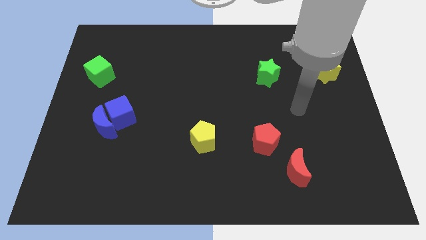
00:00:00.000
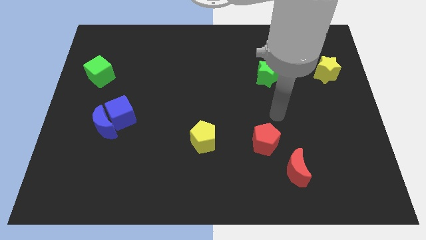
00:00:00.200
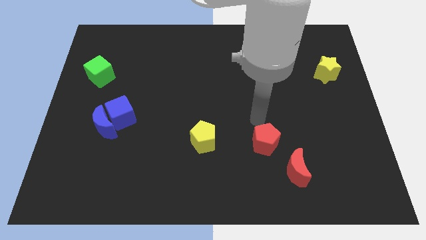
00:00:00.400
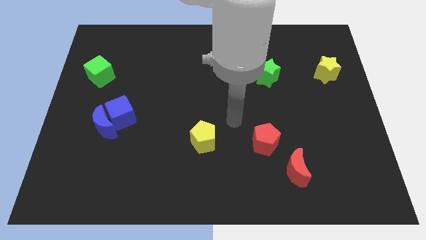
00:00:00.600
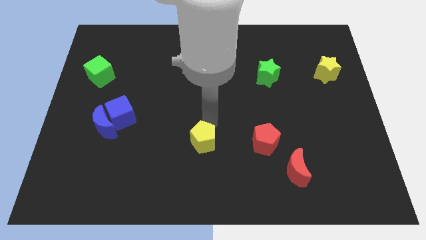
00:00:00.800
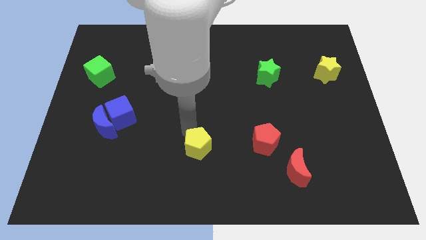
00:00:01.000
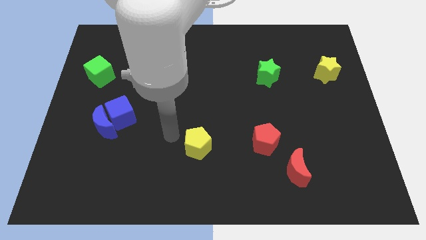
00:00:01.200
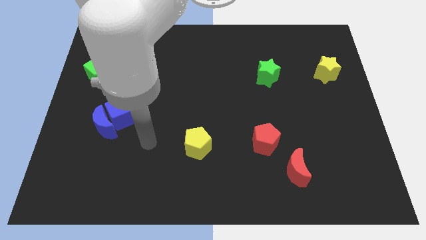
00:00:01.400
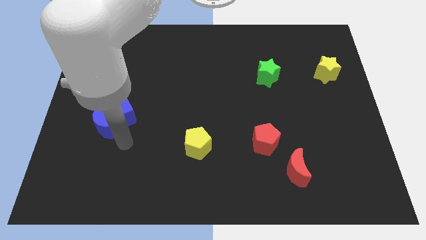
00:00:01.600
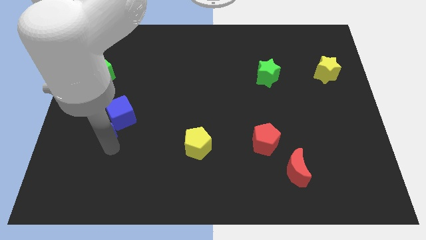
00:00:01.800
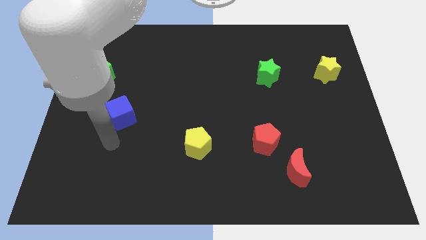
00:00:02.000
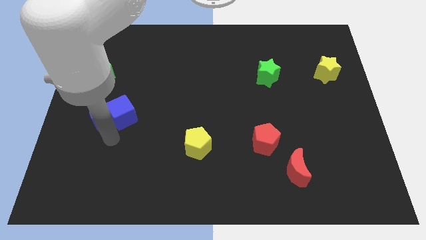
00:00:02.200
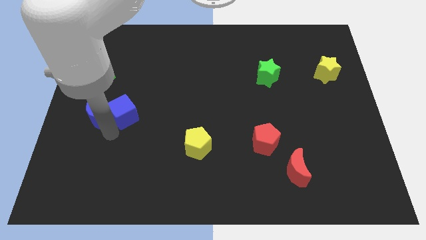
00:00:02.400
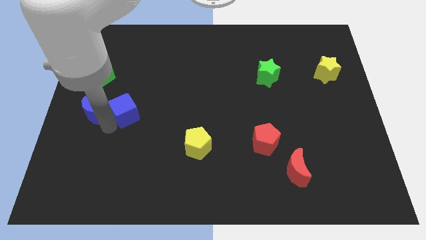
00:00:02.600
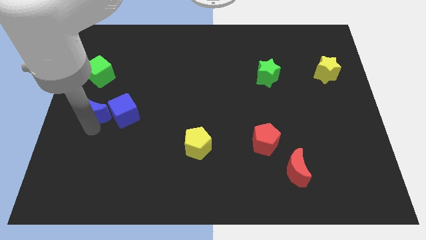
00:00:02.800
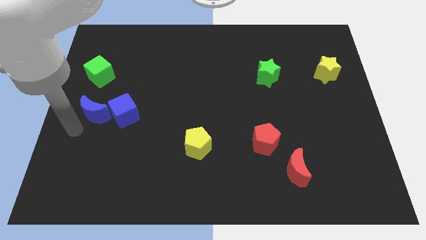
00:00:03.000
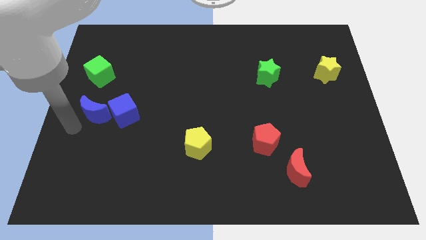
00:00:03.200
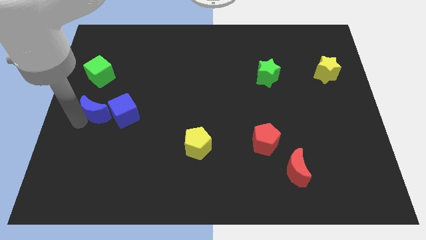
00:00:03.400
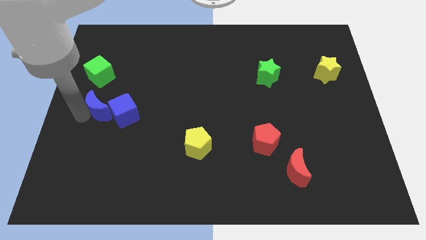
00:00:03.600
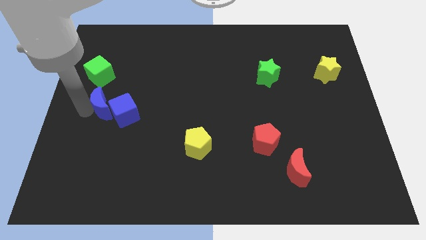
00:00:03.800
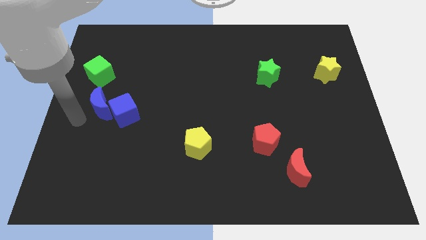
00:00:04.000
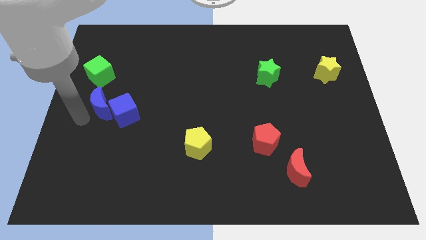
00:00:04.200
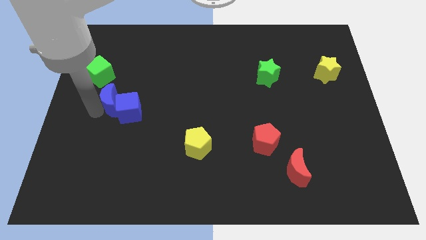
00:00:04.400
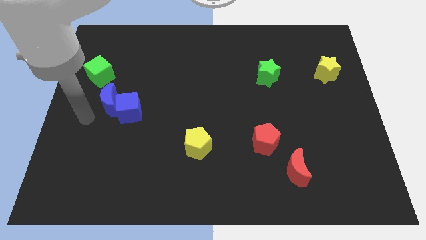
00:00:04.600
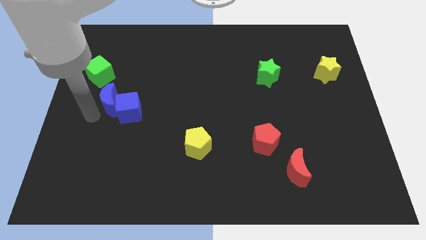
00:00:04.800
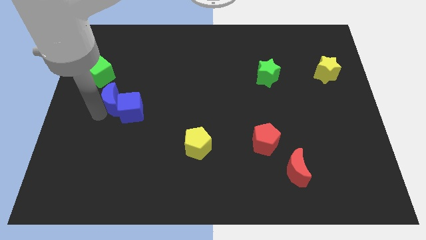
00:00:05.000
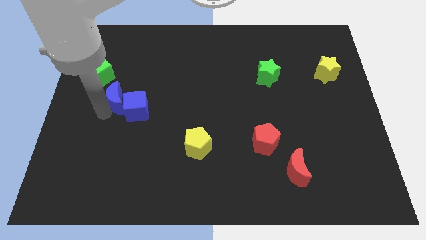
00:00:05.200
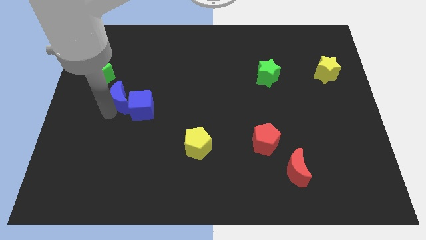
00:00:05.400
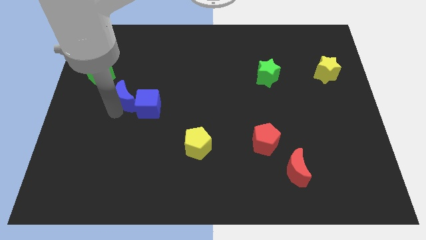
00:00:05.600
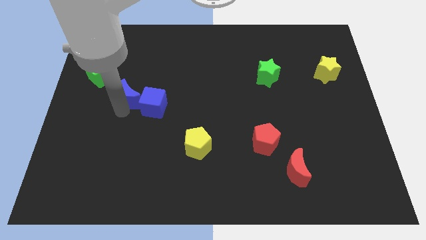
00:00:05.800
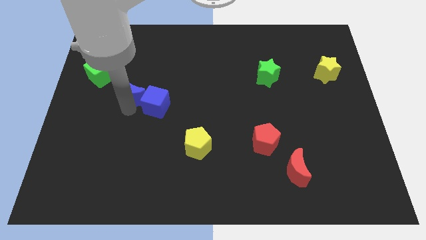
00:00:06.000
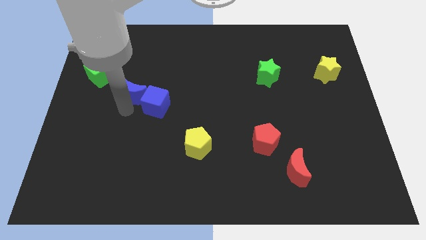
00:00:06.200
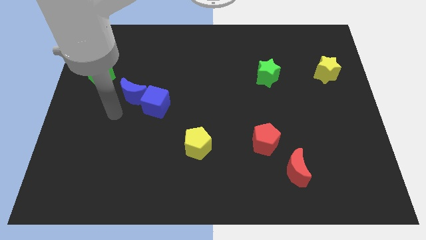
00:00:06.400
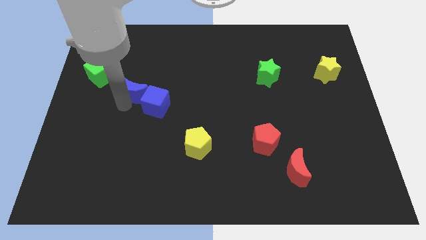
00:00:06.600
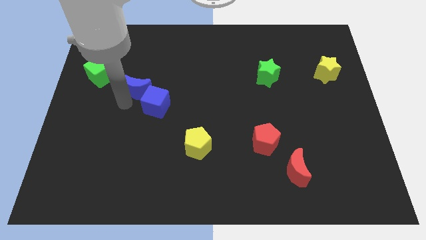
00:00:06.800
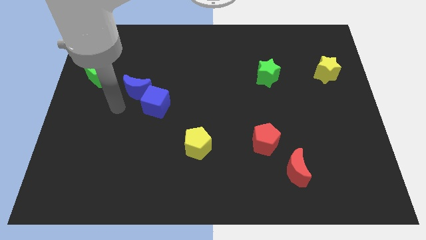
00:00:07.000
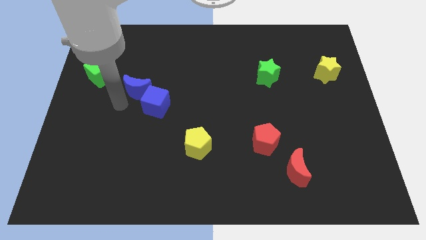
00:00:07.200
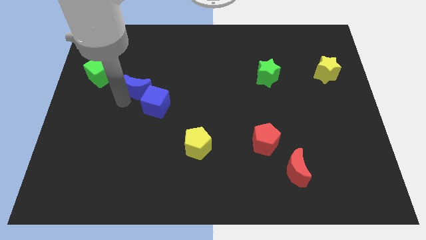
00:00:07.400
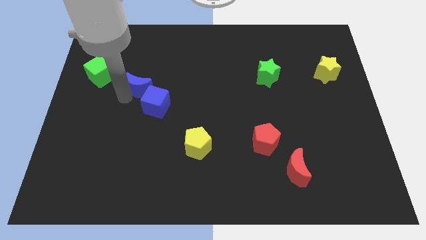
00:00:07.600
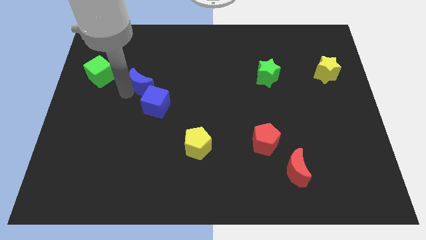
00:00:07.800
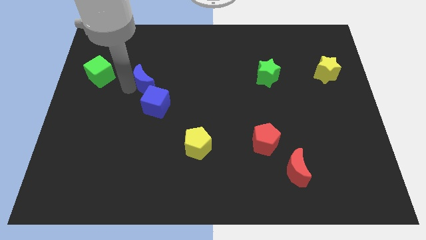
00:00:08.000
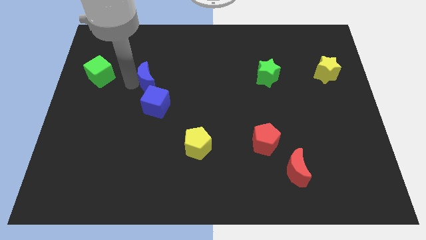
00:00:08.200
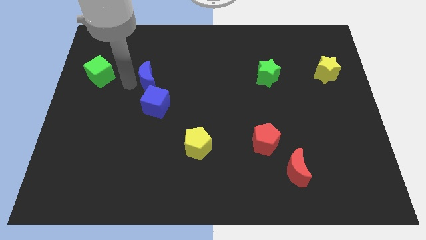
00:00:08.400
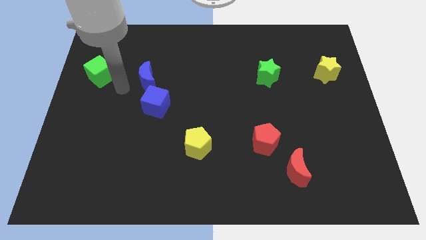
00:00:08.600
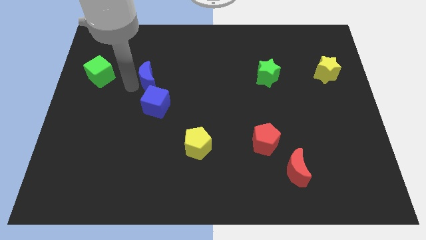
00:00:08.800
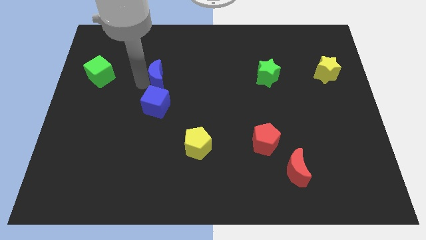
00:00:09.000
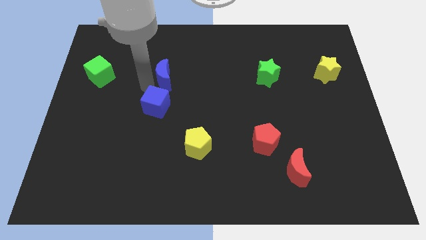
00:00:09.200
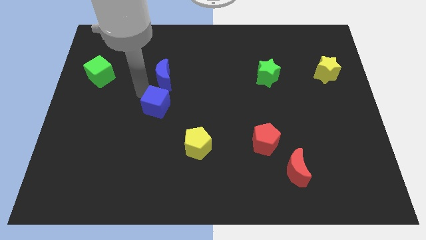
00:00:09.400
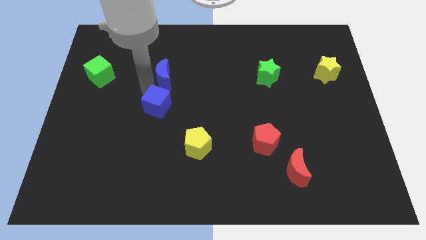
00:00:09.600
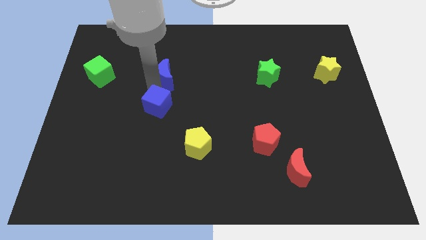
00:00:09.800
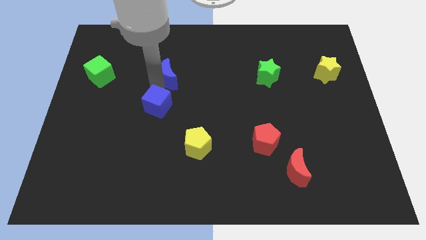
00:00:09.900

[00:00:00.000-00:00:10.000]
move the blue moon up and then to the right

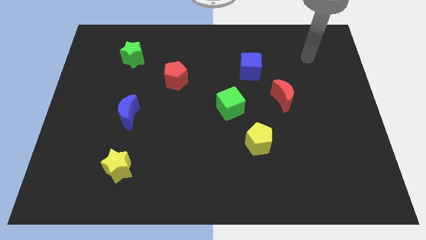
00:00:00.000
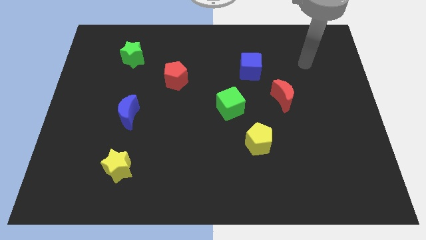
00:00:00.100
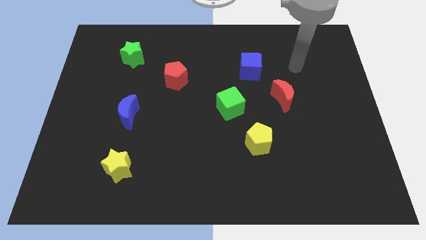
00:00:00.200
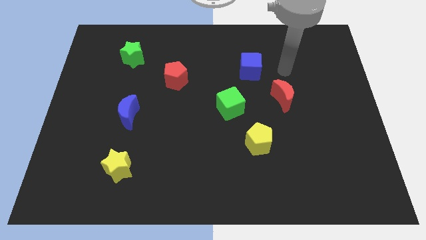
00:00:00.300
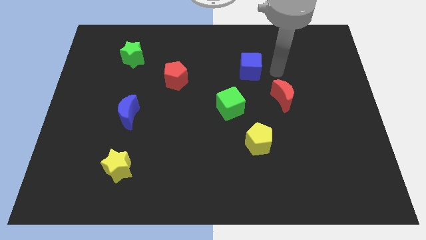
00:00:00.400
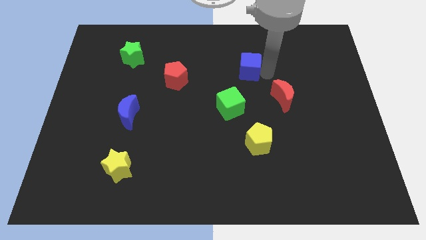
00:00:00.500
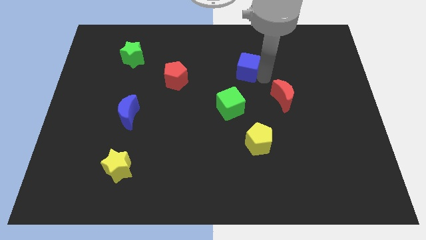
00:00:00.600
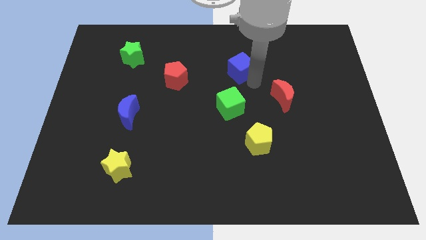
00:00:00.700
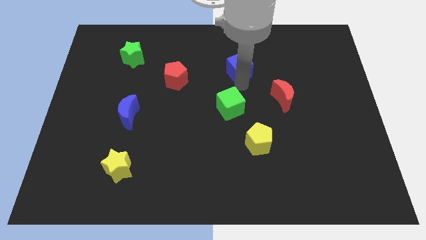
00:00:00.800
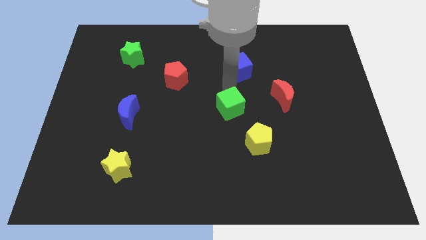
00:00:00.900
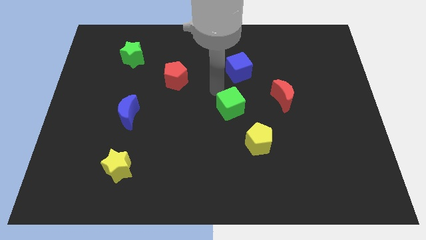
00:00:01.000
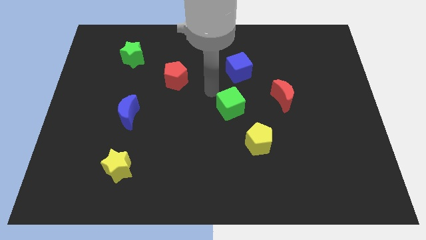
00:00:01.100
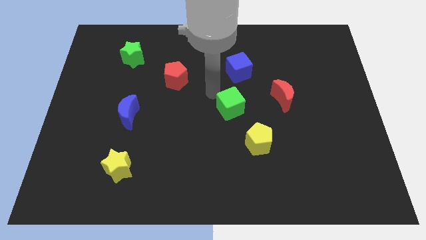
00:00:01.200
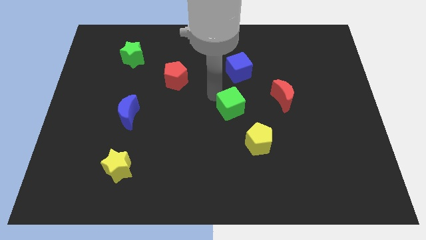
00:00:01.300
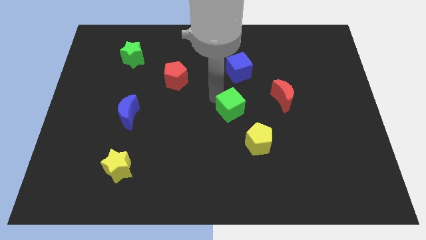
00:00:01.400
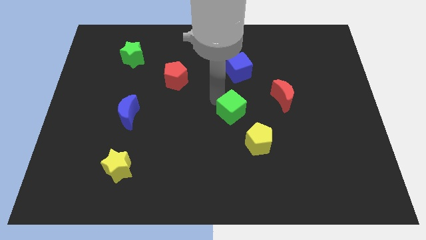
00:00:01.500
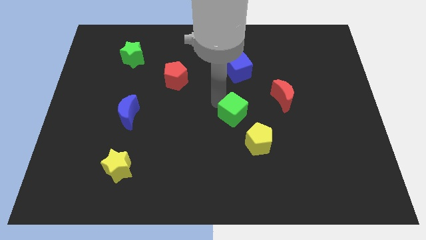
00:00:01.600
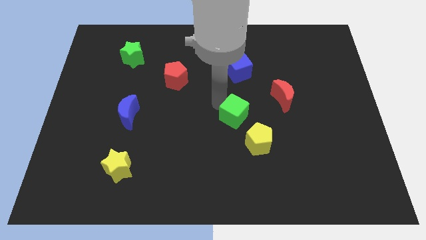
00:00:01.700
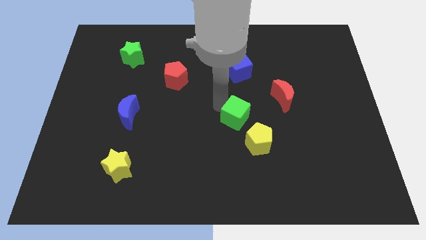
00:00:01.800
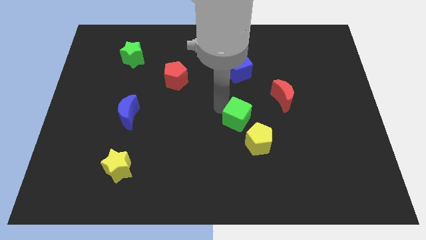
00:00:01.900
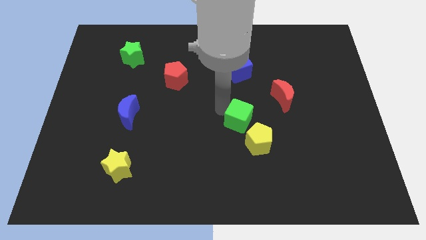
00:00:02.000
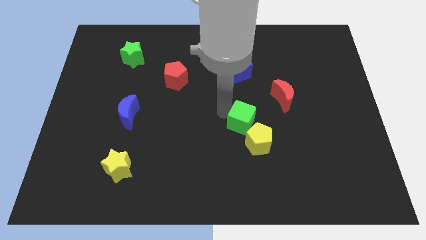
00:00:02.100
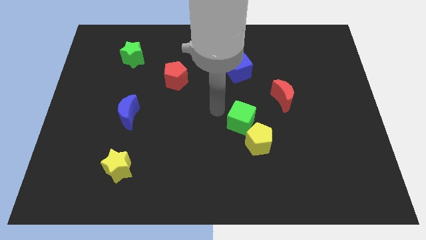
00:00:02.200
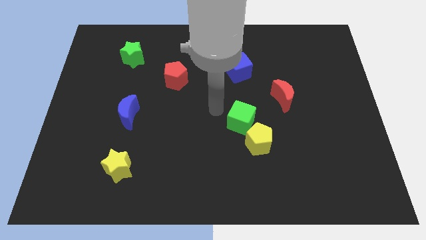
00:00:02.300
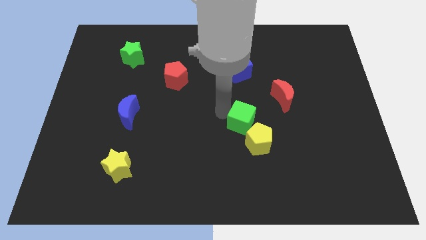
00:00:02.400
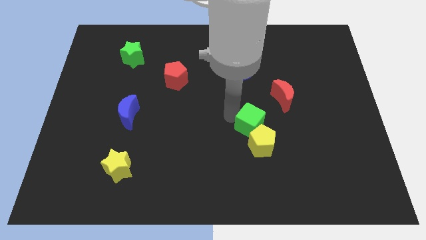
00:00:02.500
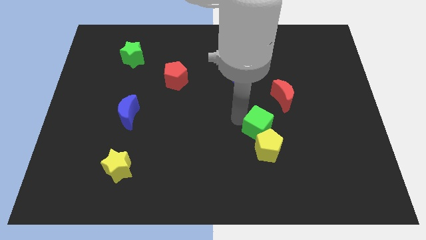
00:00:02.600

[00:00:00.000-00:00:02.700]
push the green cube diagonally downwards and to the right a little bit

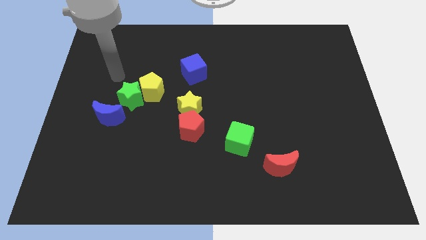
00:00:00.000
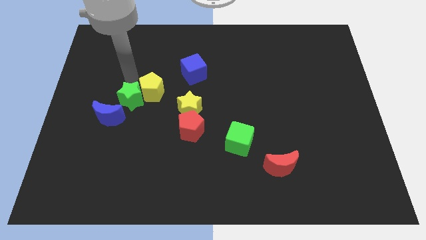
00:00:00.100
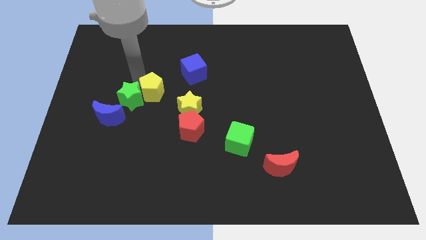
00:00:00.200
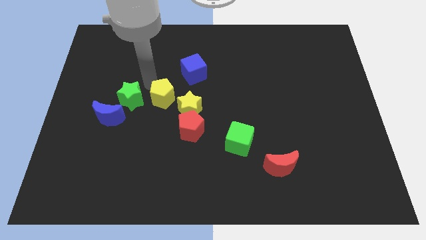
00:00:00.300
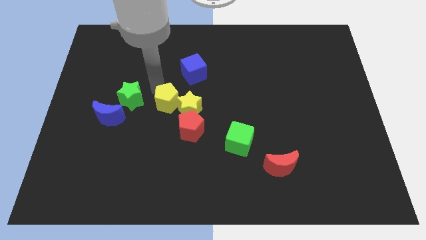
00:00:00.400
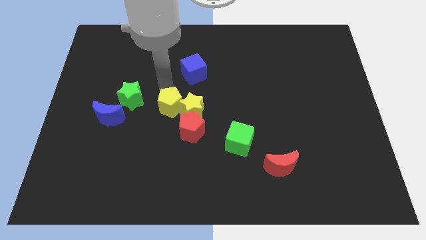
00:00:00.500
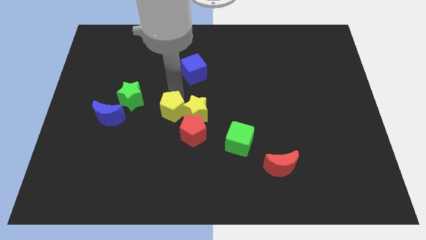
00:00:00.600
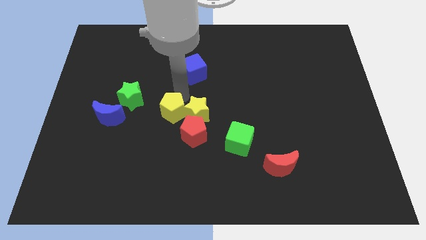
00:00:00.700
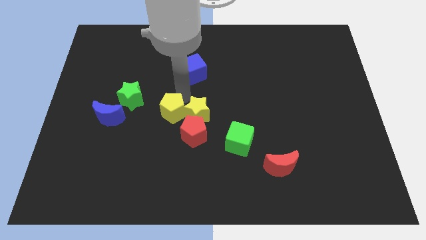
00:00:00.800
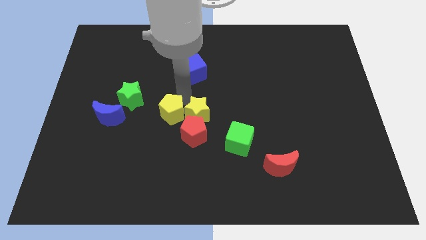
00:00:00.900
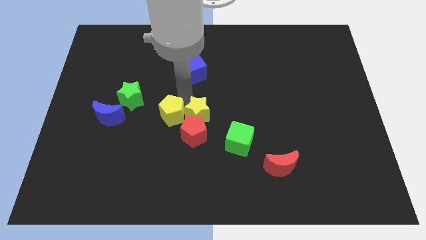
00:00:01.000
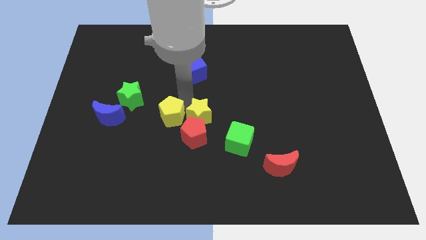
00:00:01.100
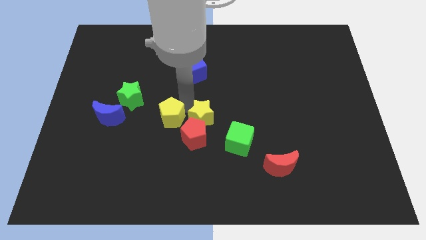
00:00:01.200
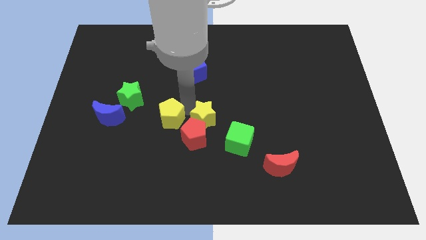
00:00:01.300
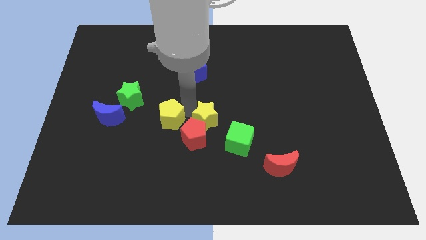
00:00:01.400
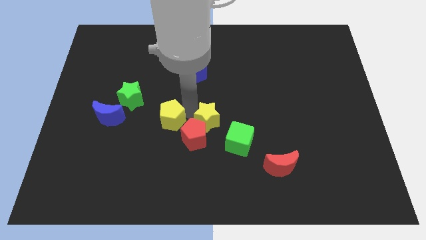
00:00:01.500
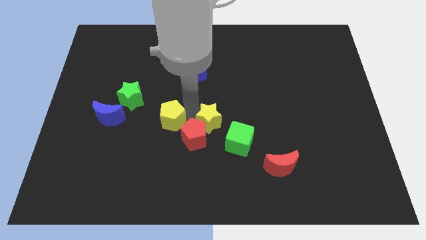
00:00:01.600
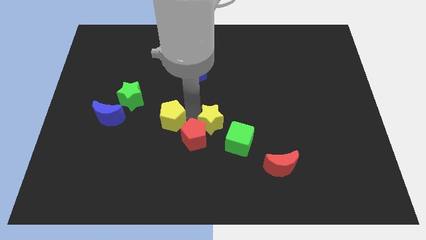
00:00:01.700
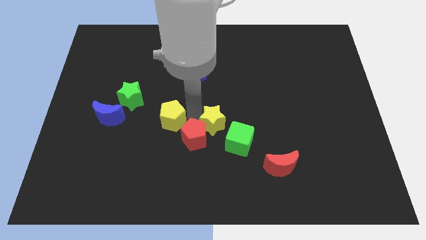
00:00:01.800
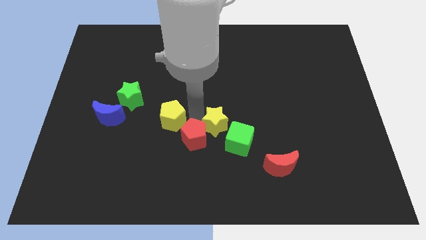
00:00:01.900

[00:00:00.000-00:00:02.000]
move the yellow star downwards and then to the right a little bit
